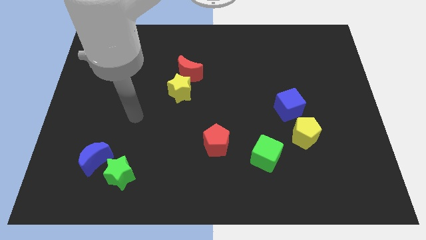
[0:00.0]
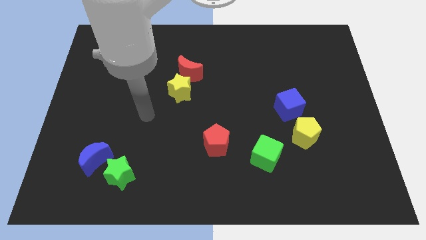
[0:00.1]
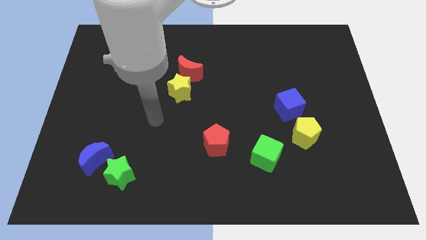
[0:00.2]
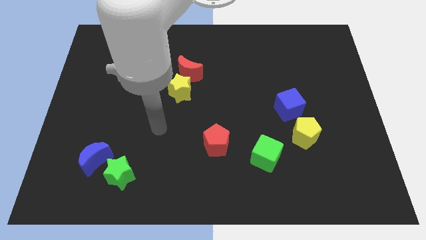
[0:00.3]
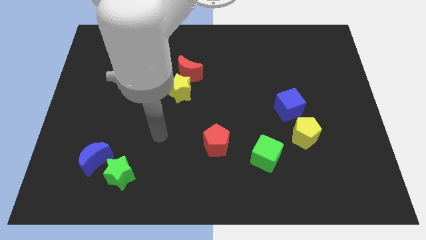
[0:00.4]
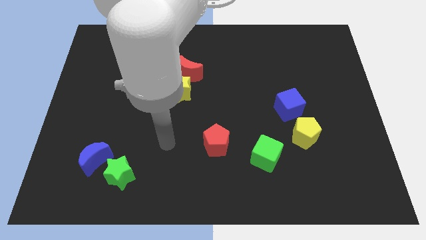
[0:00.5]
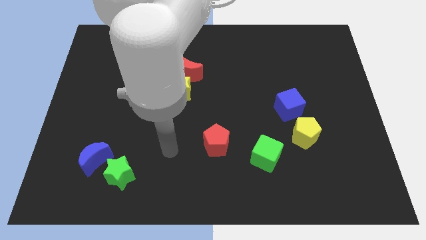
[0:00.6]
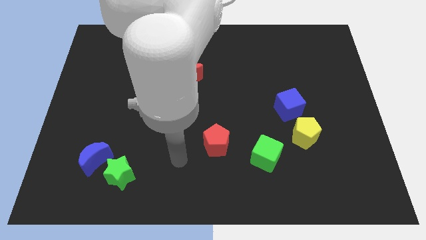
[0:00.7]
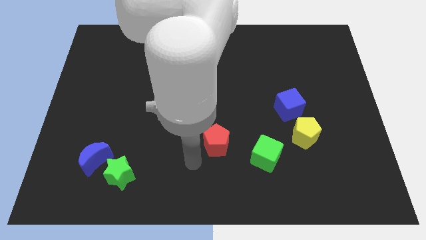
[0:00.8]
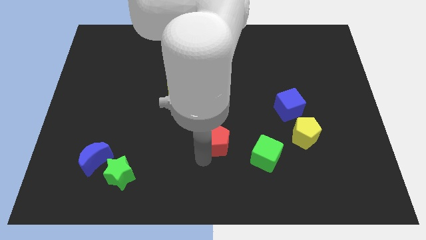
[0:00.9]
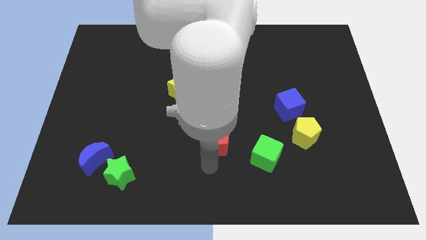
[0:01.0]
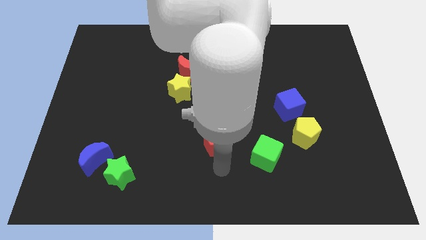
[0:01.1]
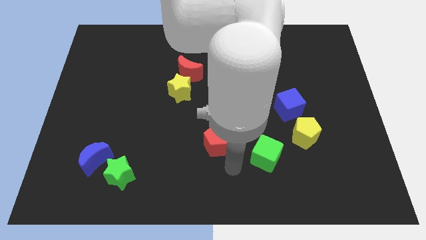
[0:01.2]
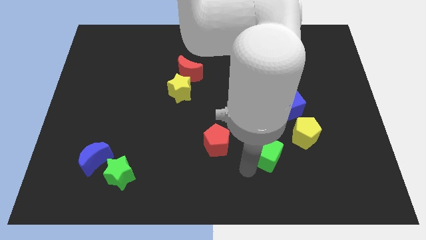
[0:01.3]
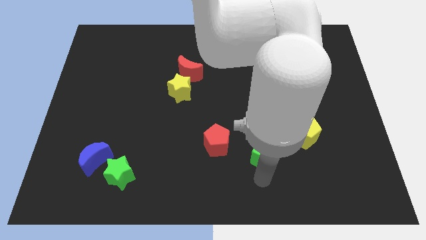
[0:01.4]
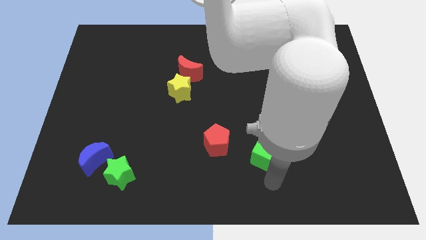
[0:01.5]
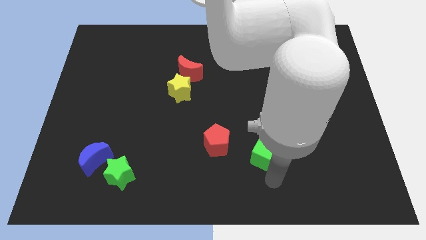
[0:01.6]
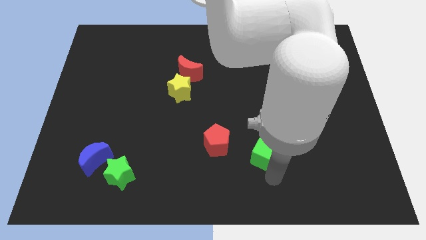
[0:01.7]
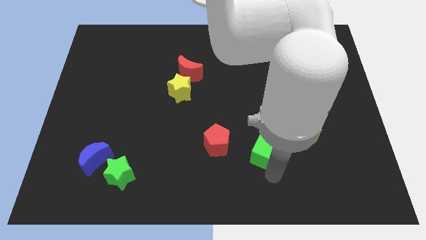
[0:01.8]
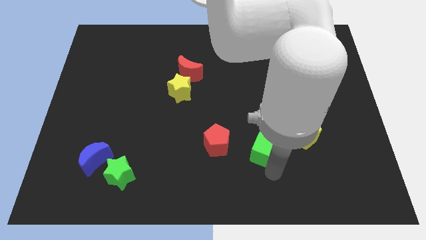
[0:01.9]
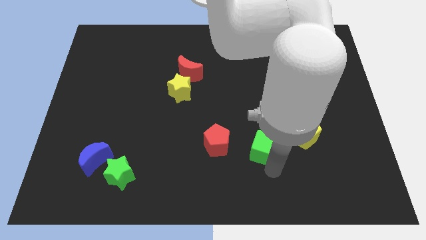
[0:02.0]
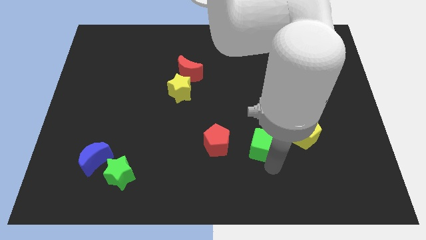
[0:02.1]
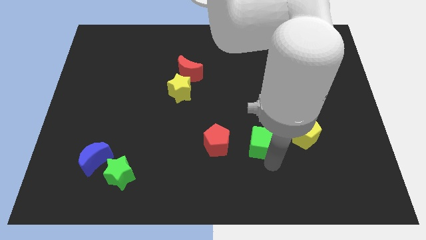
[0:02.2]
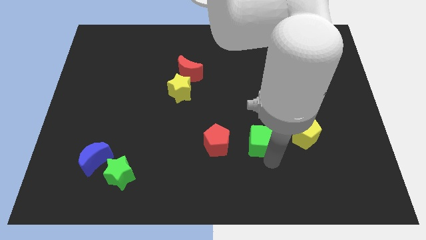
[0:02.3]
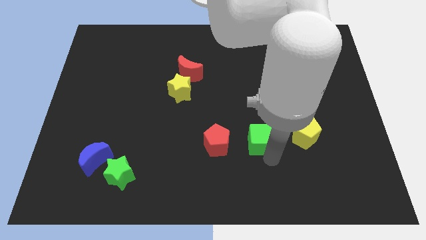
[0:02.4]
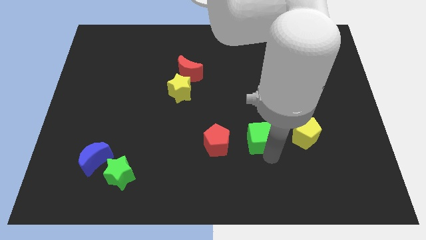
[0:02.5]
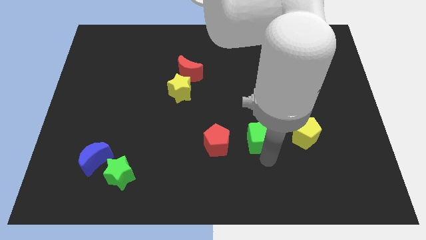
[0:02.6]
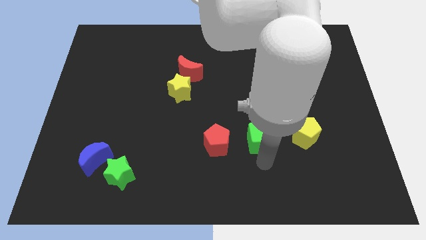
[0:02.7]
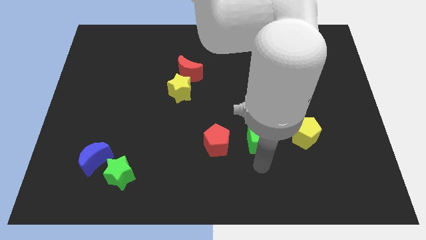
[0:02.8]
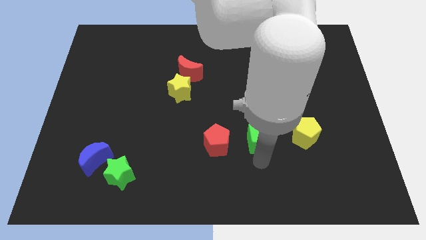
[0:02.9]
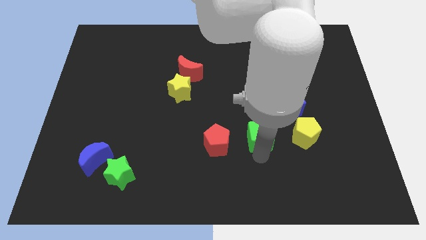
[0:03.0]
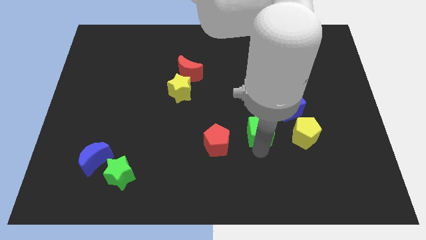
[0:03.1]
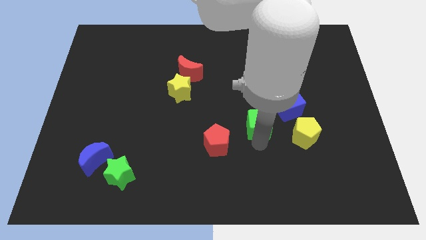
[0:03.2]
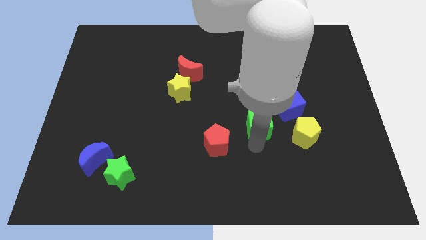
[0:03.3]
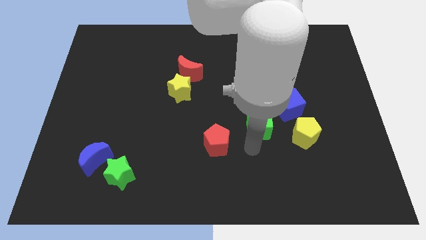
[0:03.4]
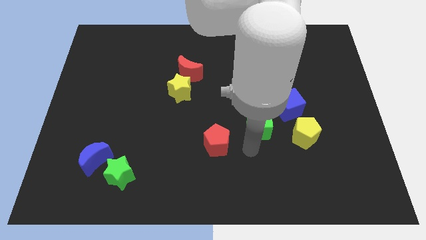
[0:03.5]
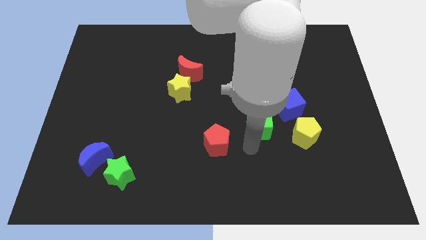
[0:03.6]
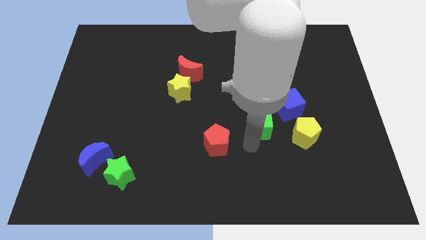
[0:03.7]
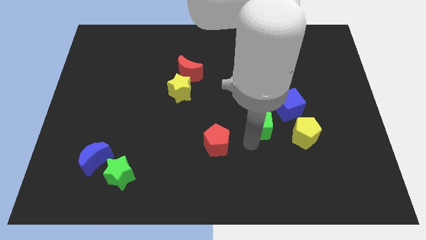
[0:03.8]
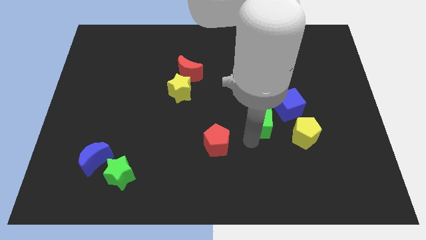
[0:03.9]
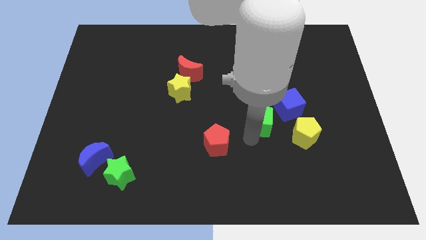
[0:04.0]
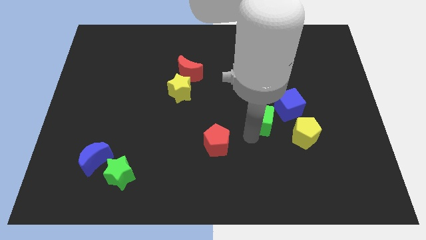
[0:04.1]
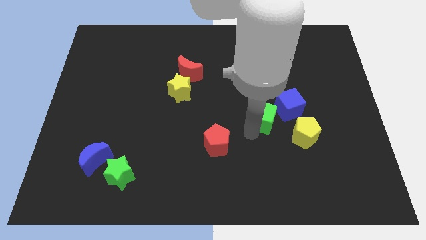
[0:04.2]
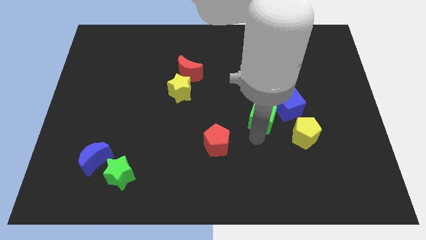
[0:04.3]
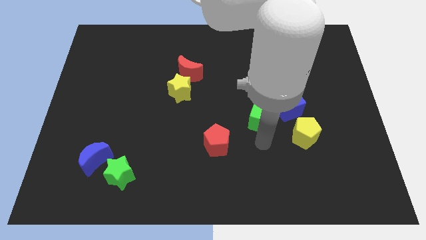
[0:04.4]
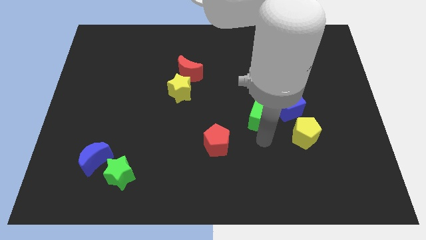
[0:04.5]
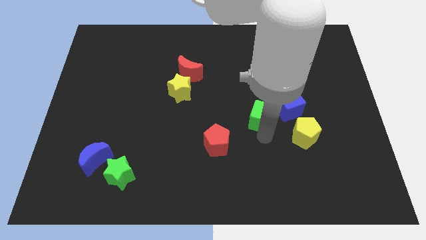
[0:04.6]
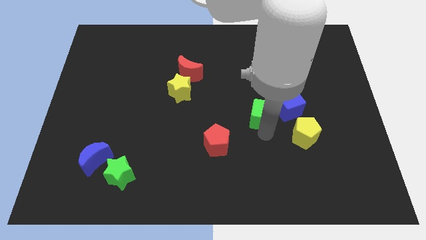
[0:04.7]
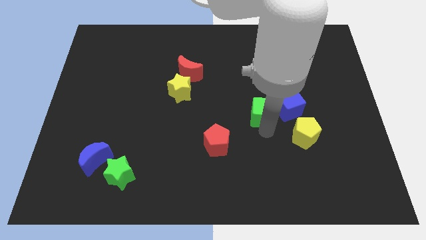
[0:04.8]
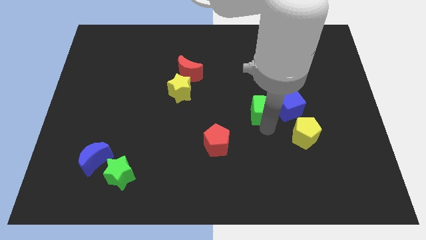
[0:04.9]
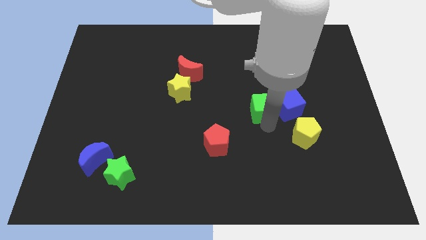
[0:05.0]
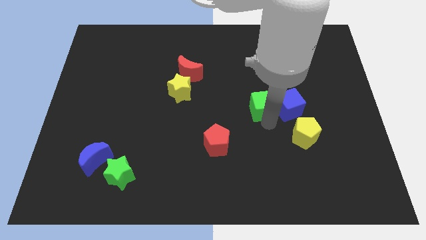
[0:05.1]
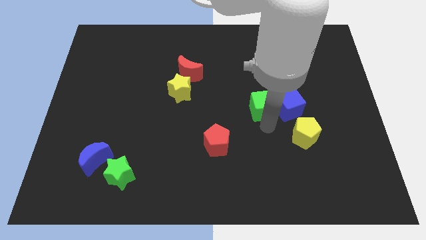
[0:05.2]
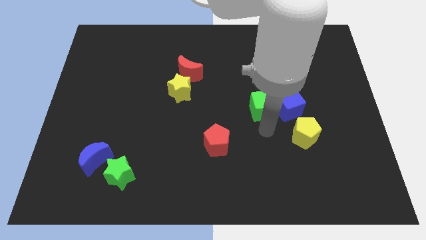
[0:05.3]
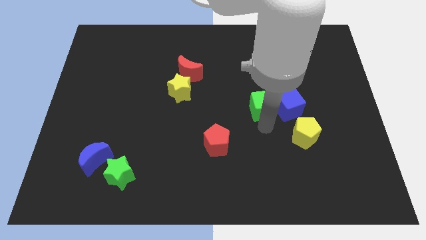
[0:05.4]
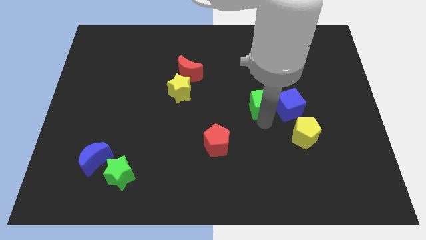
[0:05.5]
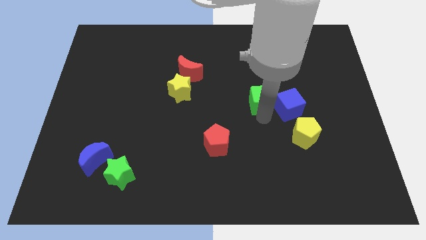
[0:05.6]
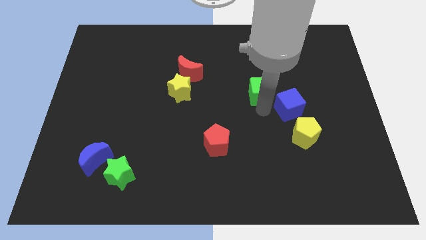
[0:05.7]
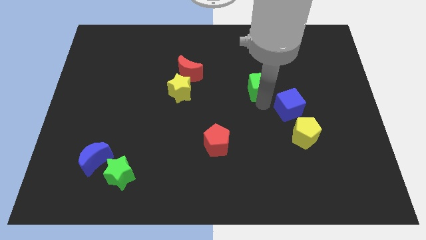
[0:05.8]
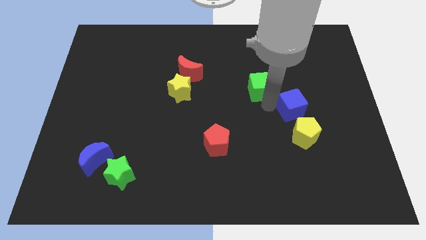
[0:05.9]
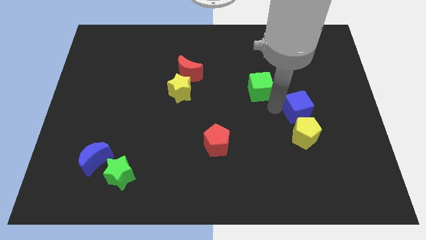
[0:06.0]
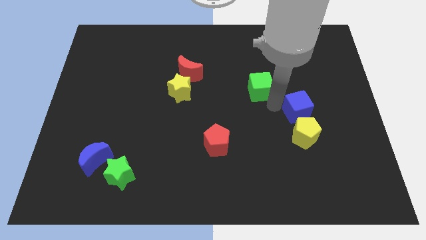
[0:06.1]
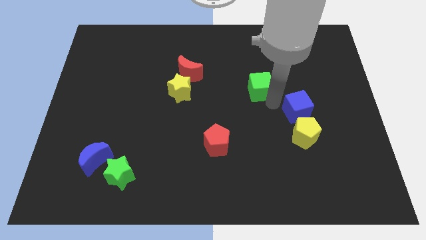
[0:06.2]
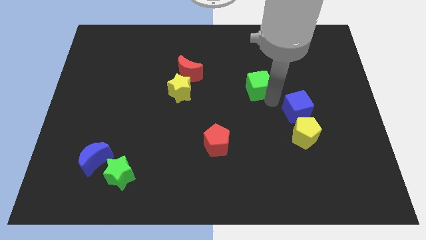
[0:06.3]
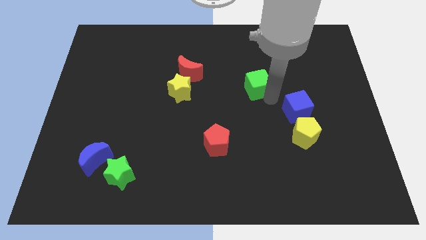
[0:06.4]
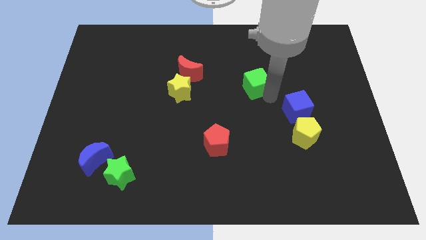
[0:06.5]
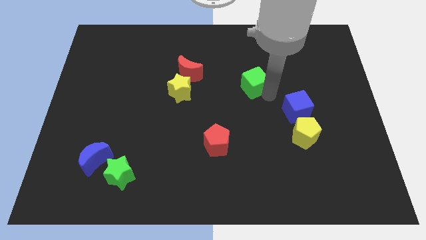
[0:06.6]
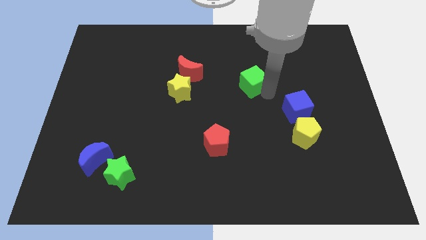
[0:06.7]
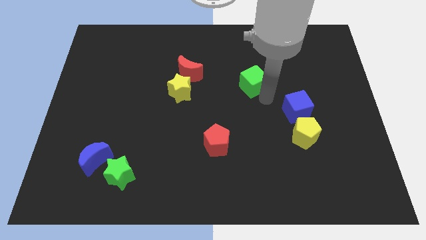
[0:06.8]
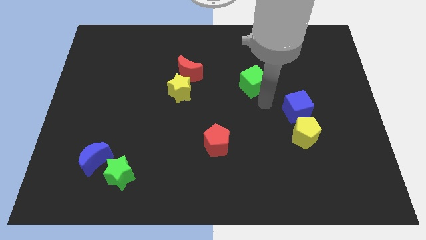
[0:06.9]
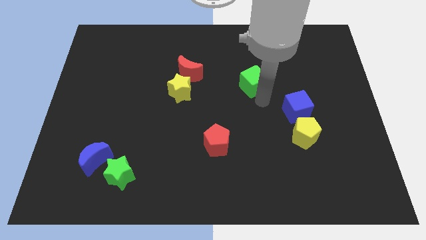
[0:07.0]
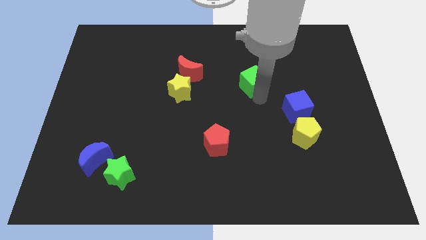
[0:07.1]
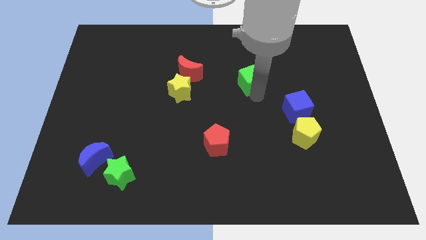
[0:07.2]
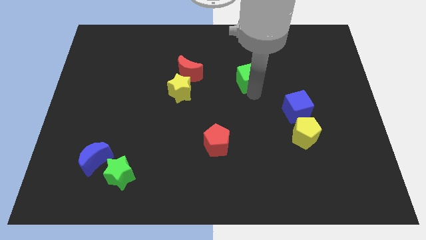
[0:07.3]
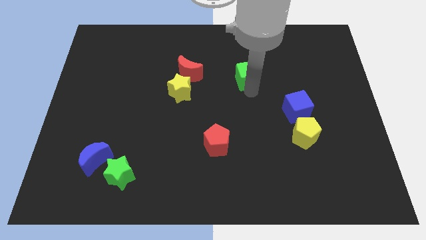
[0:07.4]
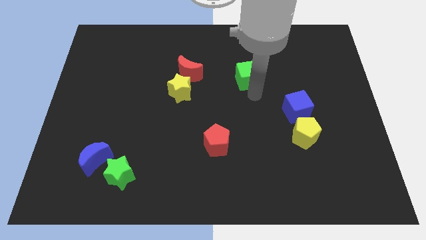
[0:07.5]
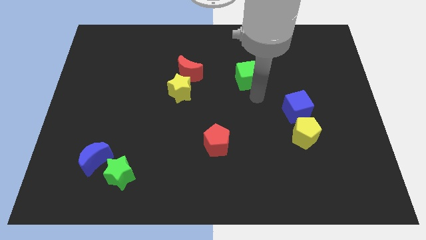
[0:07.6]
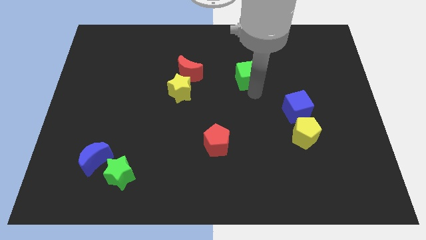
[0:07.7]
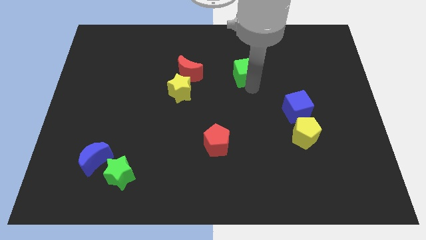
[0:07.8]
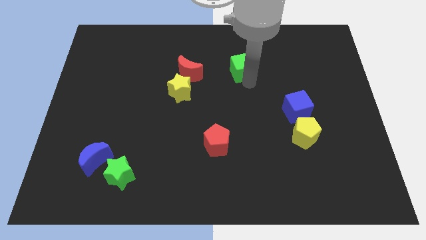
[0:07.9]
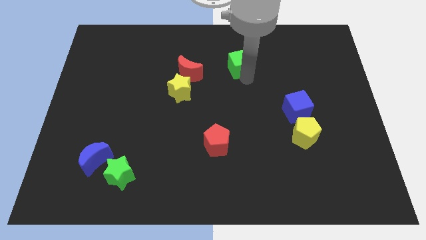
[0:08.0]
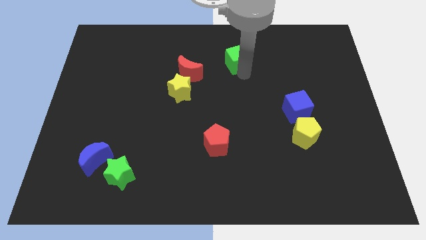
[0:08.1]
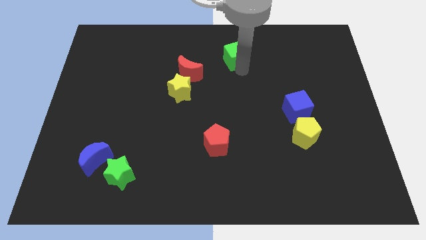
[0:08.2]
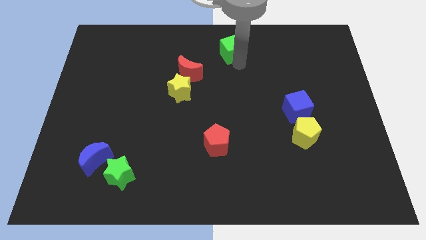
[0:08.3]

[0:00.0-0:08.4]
slide the green cube to the towards your base
